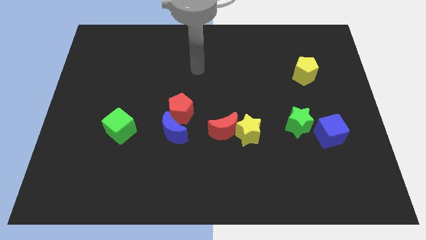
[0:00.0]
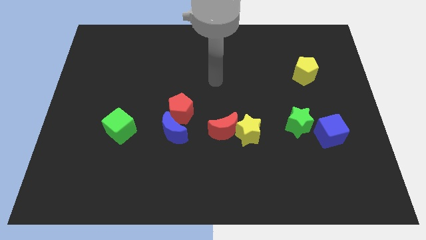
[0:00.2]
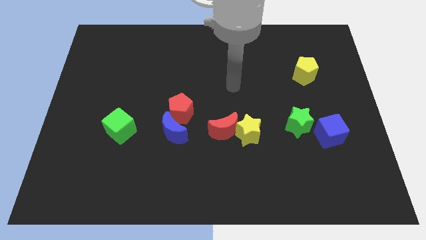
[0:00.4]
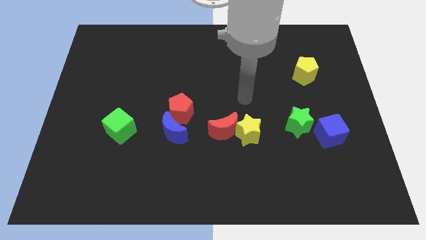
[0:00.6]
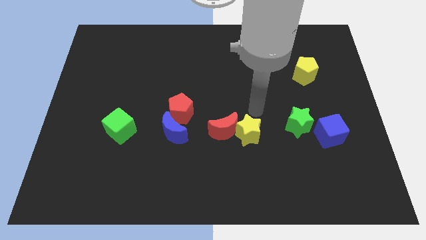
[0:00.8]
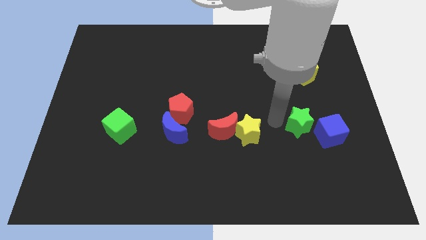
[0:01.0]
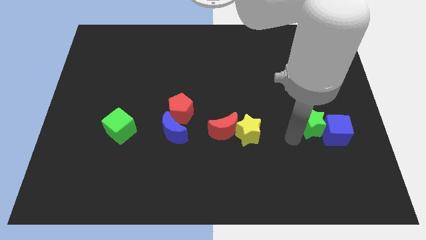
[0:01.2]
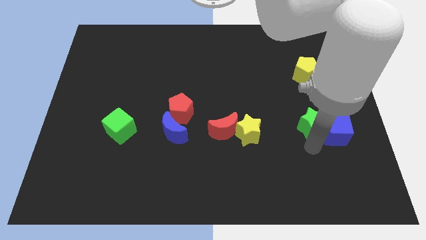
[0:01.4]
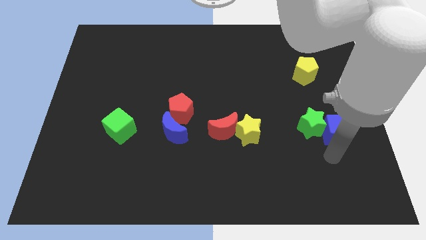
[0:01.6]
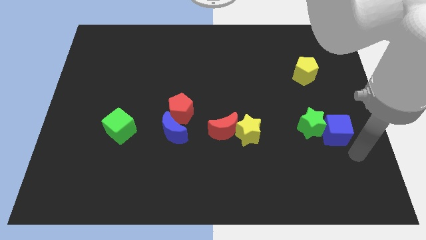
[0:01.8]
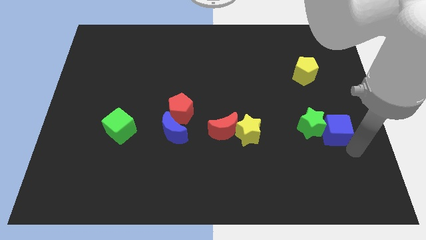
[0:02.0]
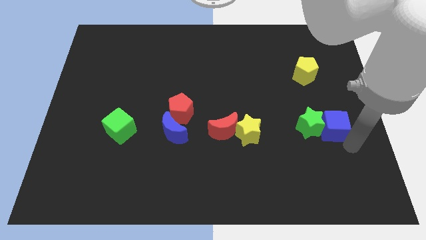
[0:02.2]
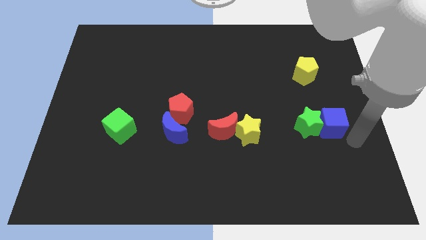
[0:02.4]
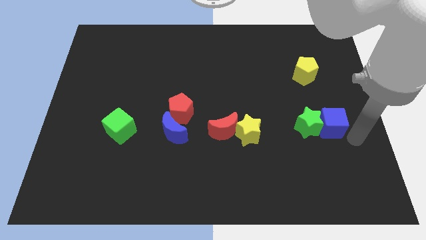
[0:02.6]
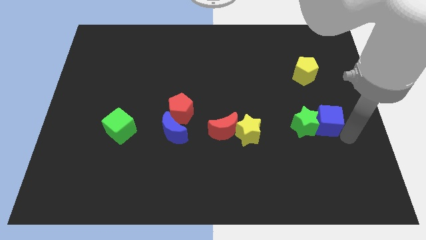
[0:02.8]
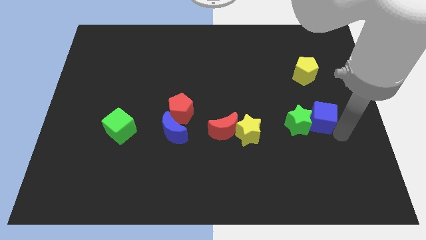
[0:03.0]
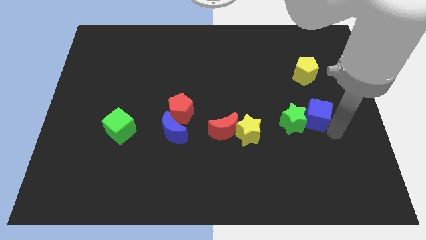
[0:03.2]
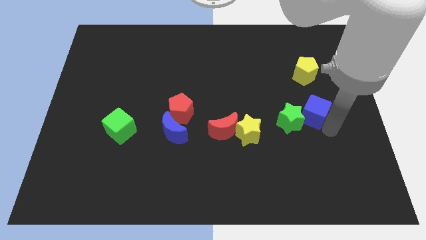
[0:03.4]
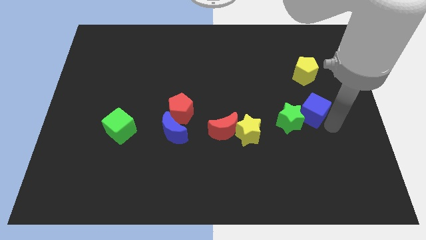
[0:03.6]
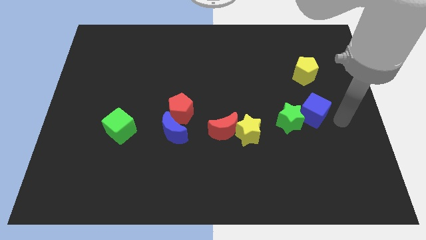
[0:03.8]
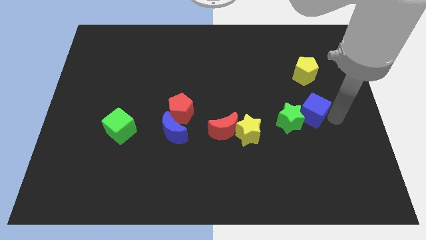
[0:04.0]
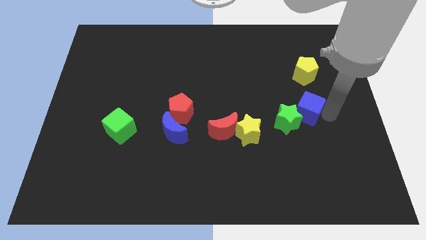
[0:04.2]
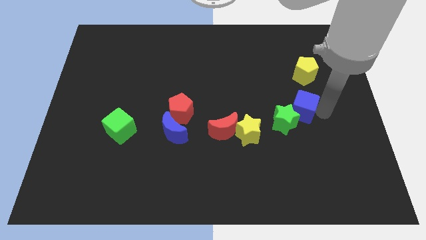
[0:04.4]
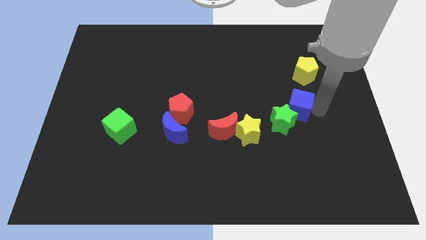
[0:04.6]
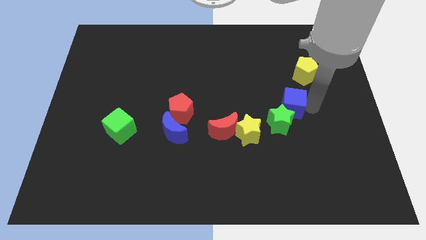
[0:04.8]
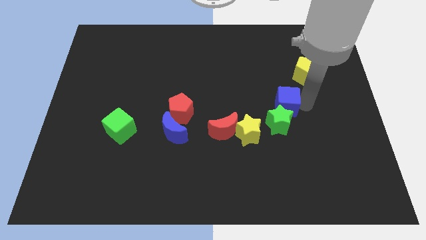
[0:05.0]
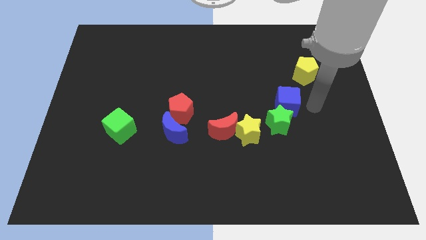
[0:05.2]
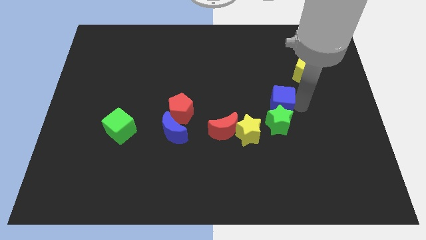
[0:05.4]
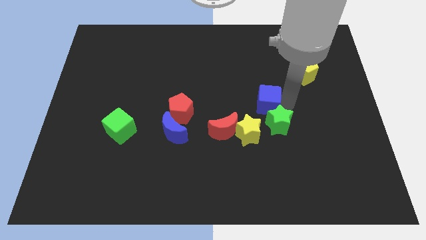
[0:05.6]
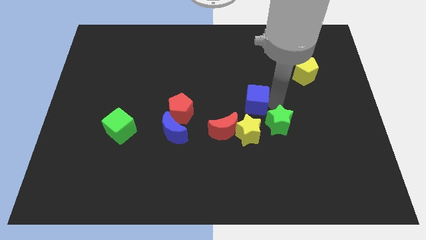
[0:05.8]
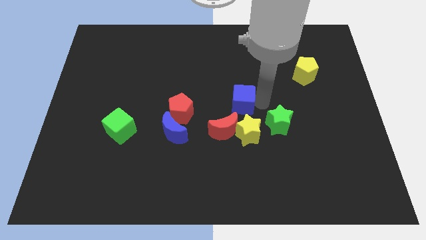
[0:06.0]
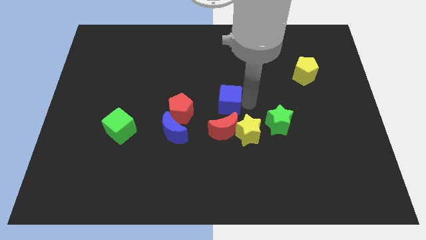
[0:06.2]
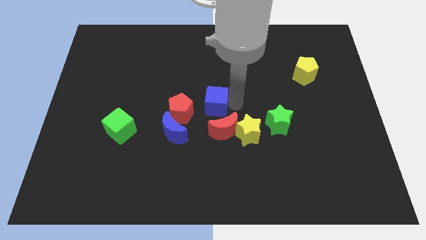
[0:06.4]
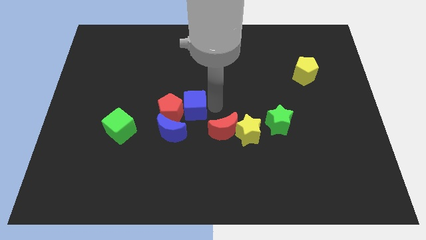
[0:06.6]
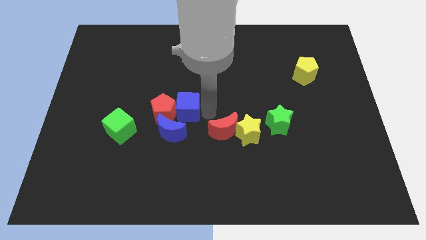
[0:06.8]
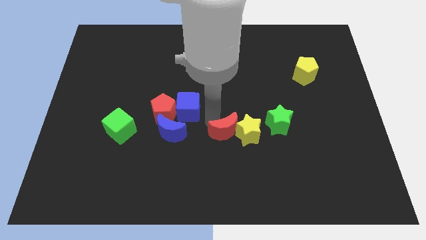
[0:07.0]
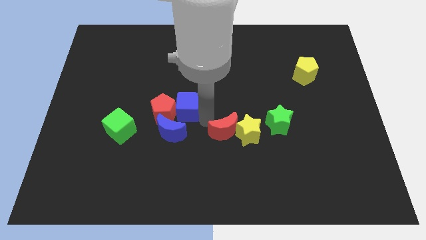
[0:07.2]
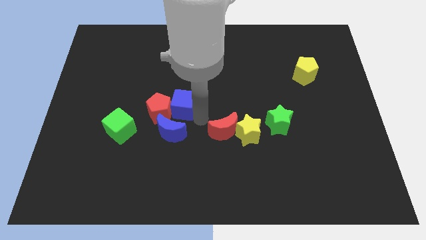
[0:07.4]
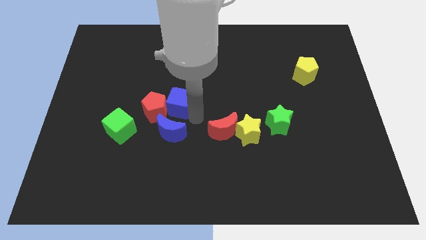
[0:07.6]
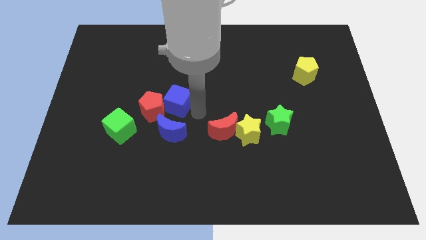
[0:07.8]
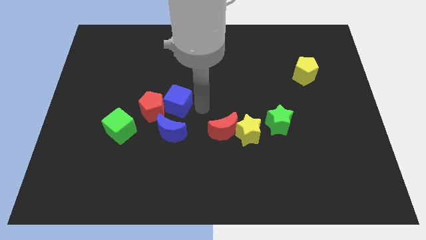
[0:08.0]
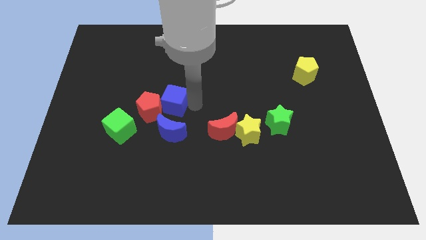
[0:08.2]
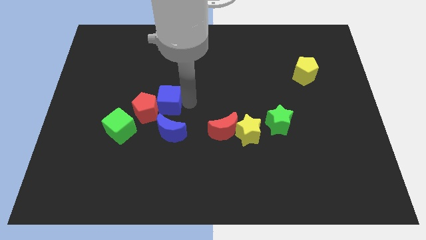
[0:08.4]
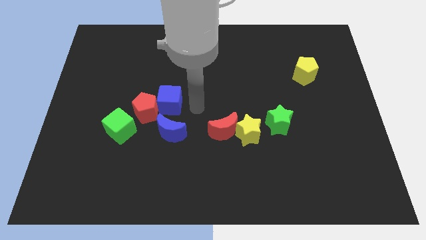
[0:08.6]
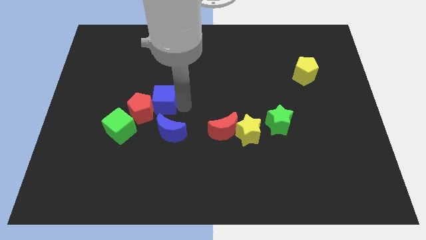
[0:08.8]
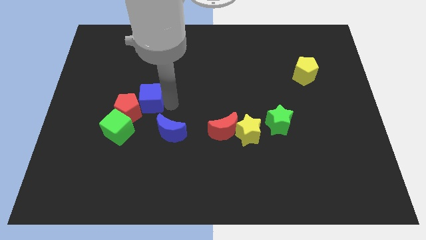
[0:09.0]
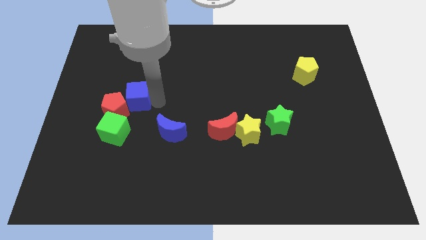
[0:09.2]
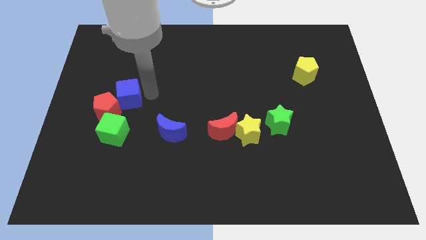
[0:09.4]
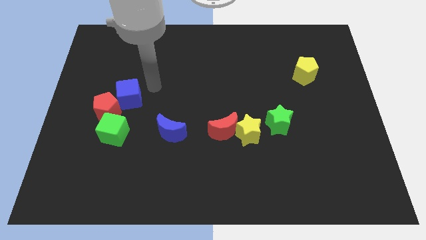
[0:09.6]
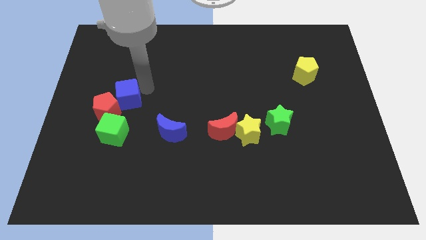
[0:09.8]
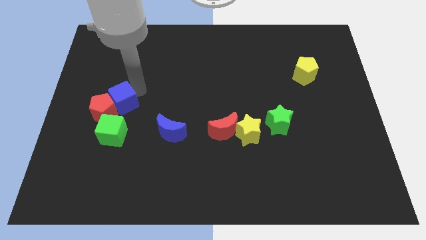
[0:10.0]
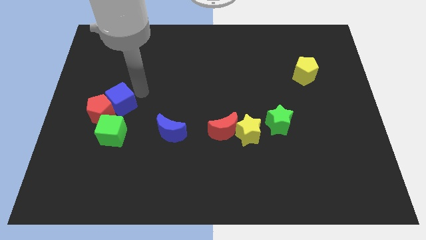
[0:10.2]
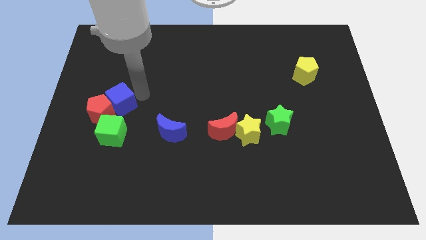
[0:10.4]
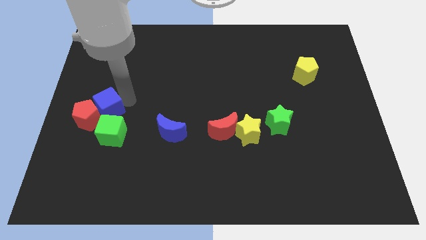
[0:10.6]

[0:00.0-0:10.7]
push the blue cube to the top left side of the green cube
